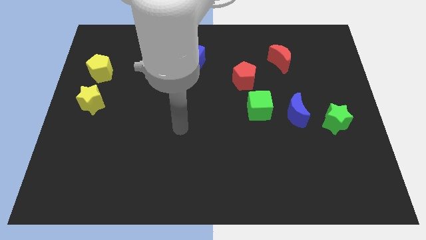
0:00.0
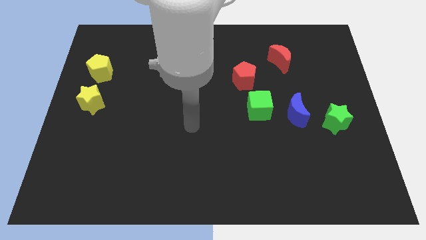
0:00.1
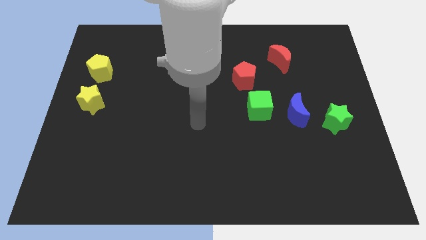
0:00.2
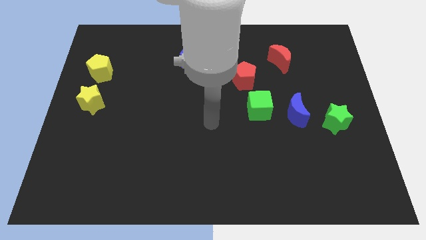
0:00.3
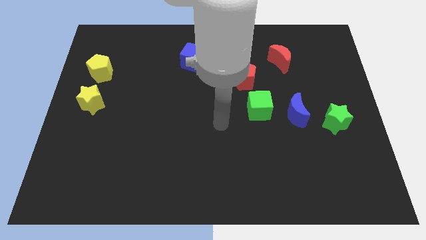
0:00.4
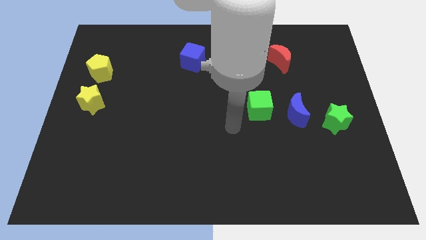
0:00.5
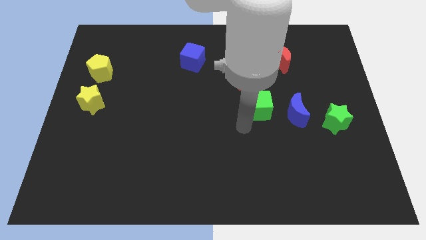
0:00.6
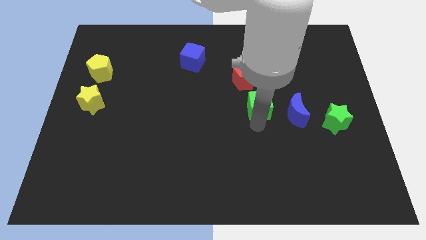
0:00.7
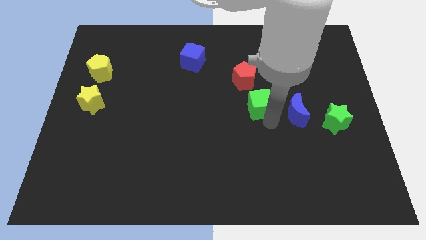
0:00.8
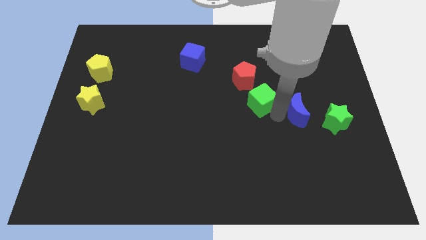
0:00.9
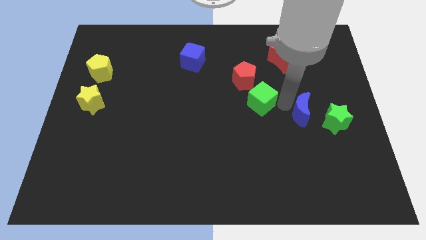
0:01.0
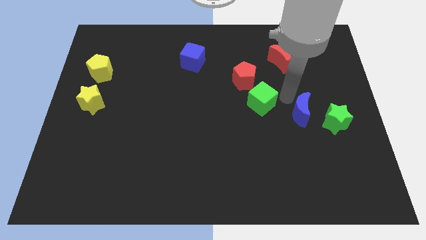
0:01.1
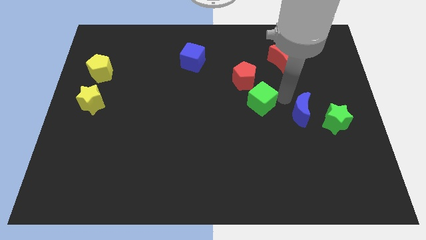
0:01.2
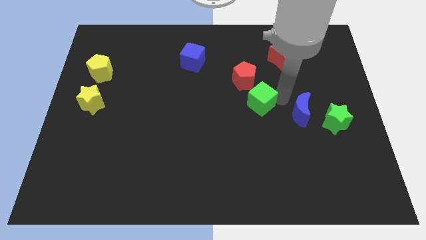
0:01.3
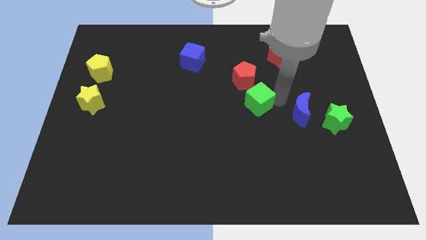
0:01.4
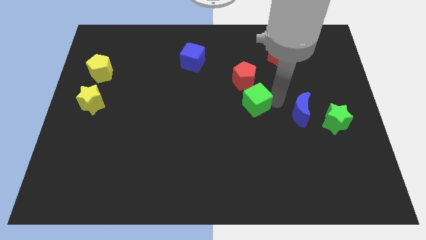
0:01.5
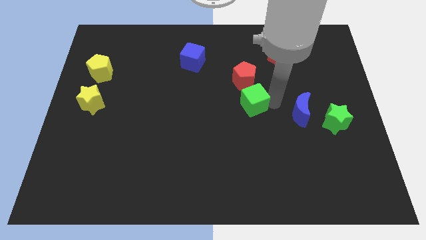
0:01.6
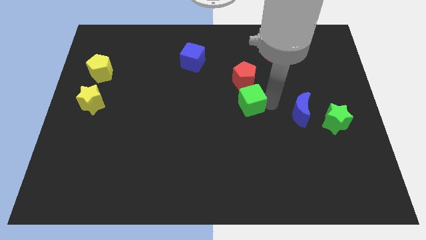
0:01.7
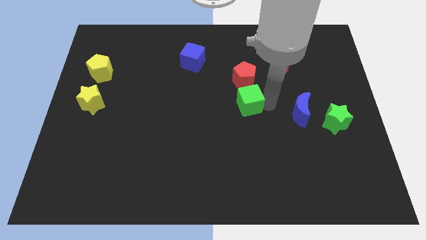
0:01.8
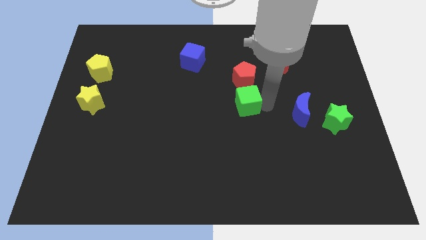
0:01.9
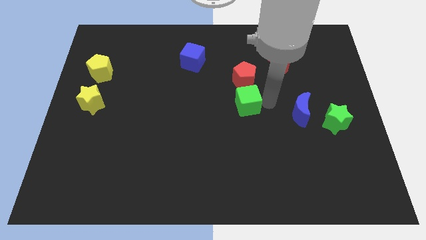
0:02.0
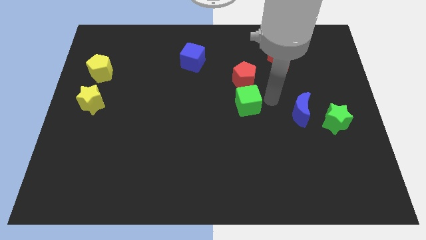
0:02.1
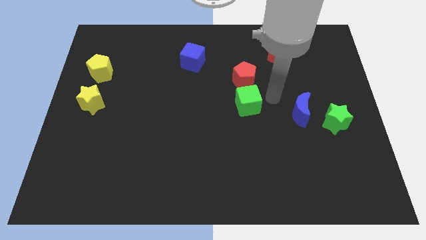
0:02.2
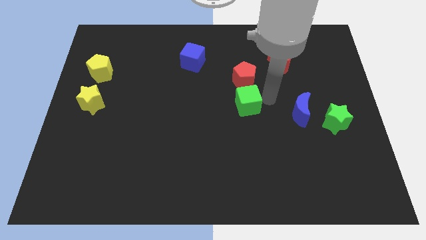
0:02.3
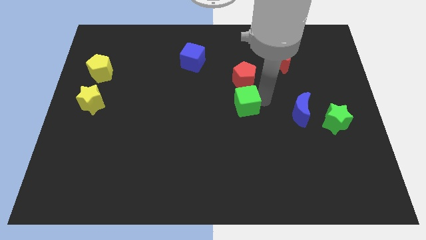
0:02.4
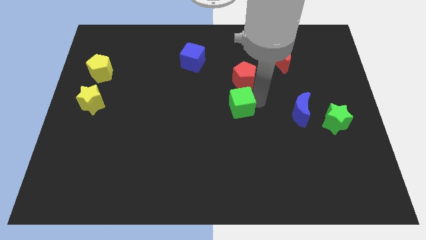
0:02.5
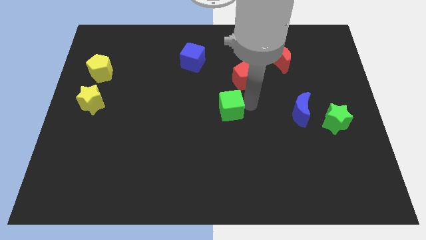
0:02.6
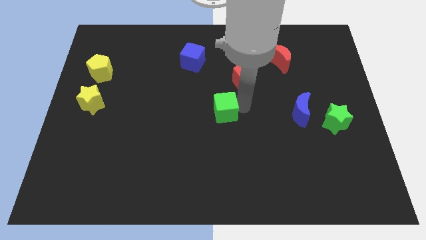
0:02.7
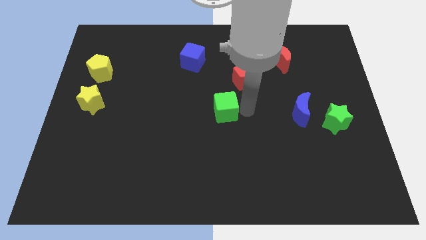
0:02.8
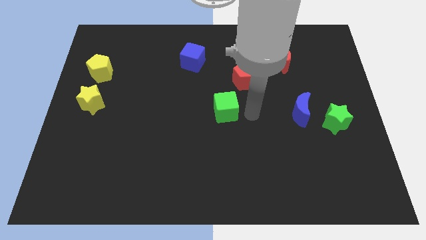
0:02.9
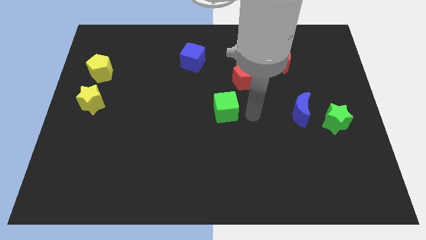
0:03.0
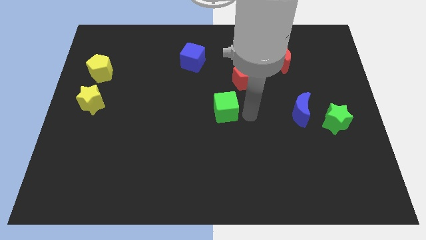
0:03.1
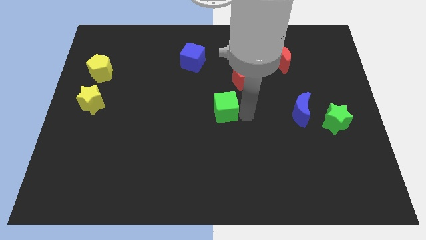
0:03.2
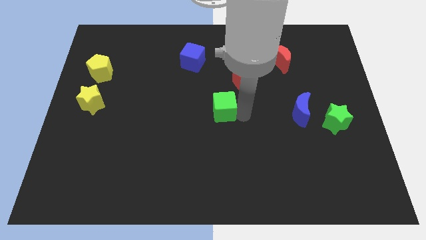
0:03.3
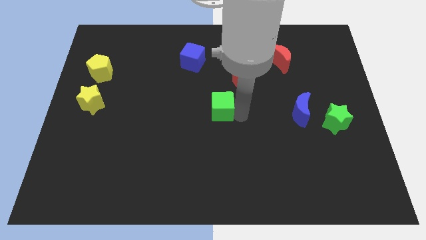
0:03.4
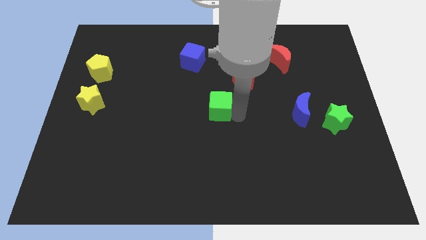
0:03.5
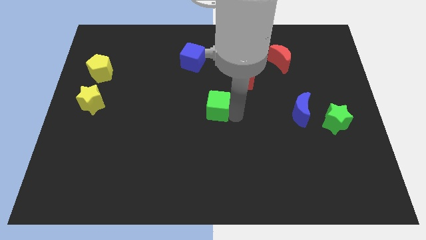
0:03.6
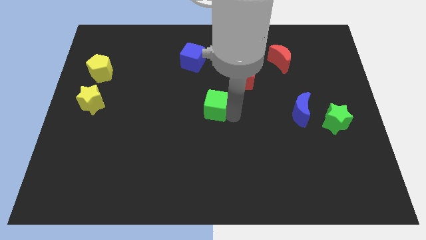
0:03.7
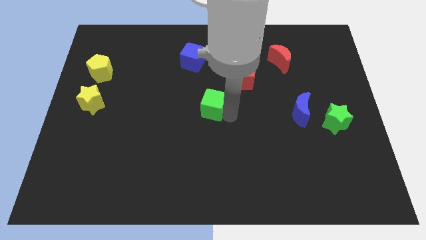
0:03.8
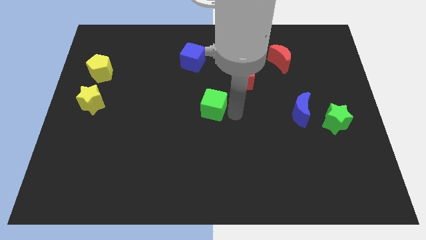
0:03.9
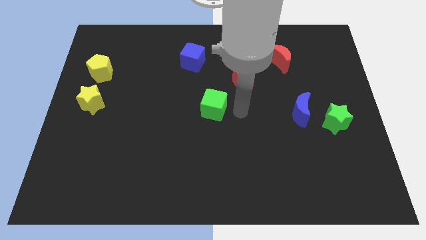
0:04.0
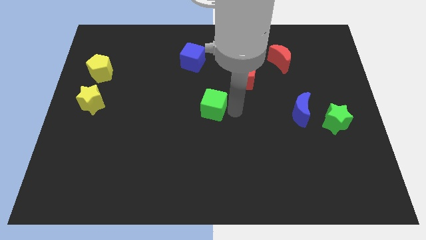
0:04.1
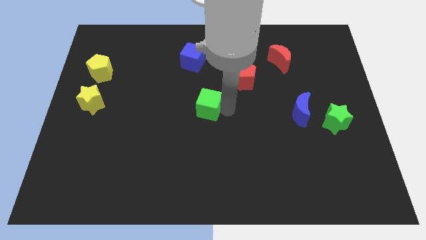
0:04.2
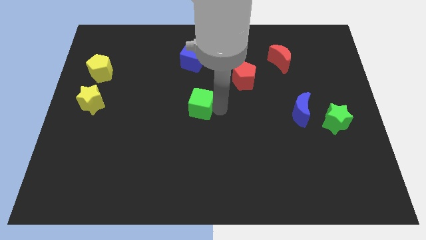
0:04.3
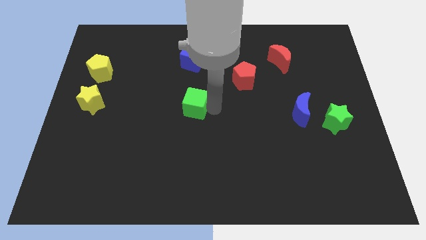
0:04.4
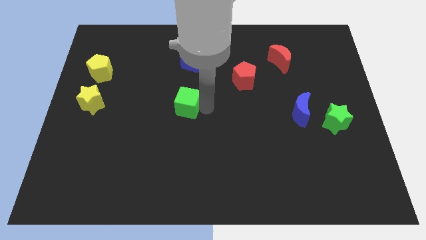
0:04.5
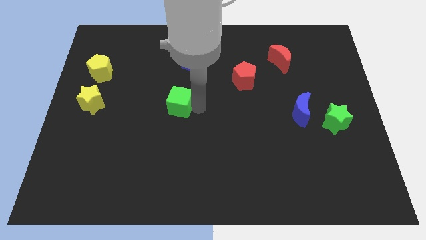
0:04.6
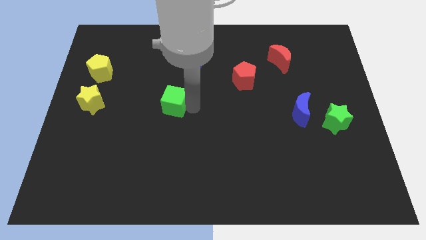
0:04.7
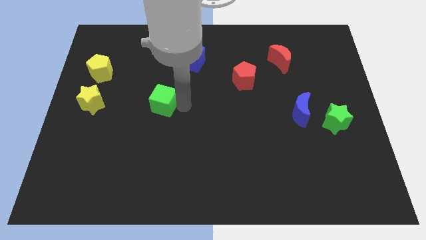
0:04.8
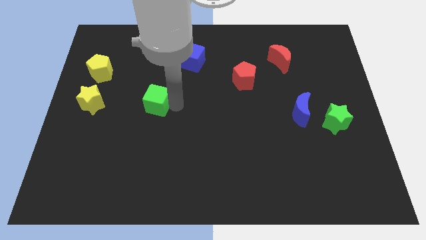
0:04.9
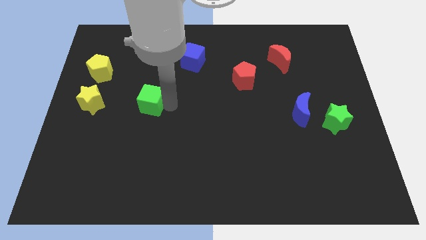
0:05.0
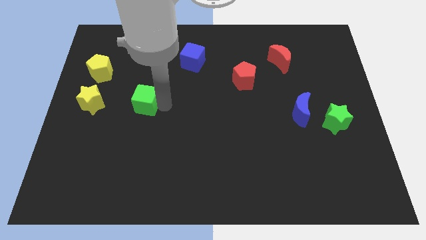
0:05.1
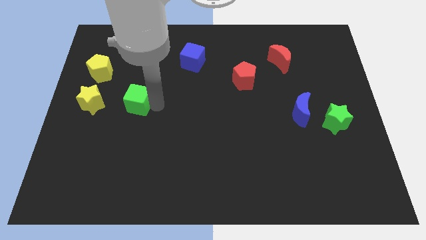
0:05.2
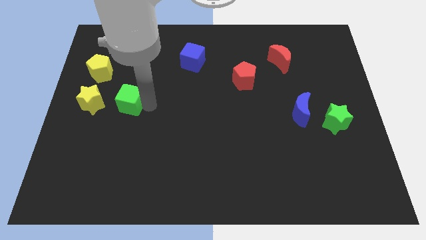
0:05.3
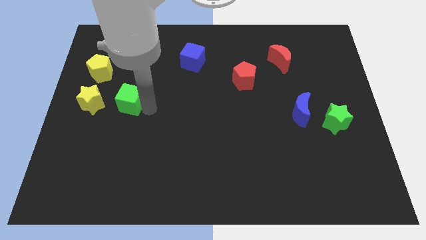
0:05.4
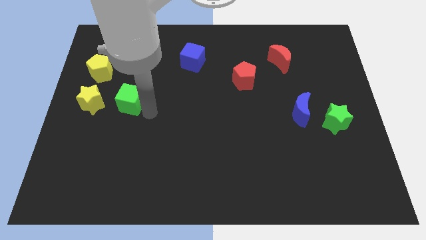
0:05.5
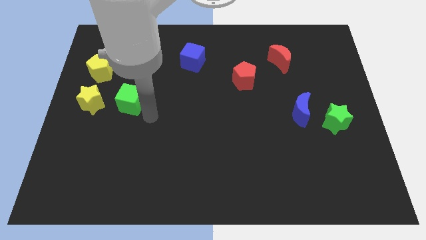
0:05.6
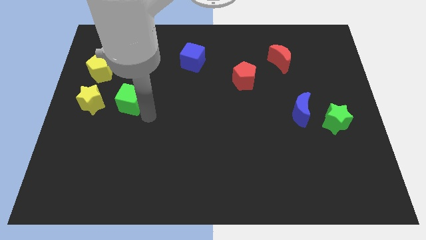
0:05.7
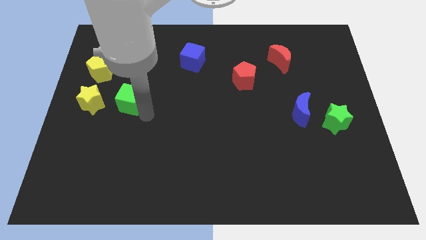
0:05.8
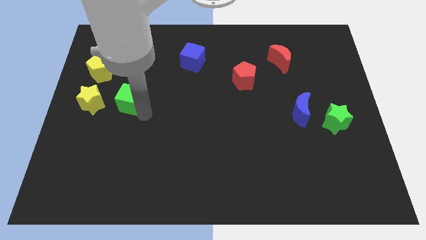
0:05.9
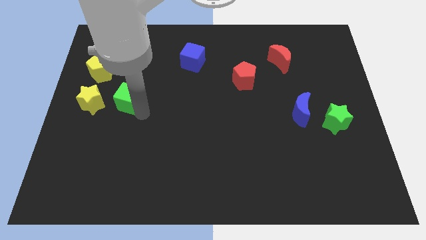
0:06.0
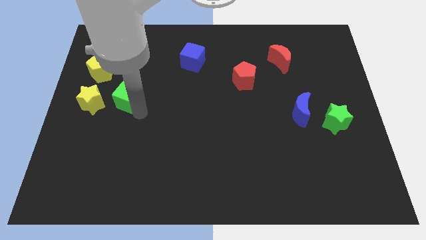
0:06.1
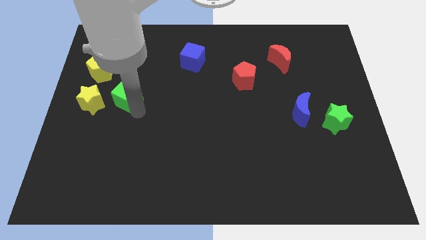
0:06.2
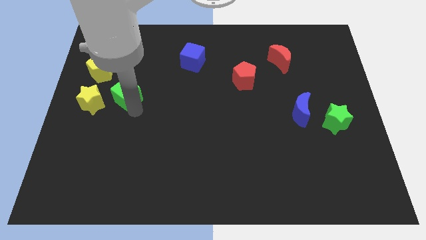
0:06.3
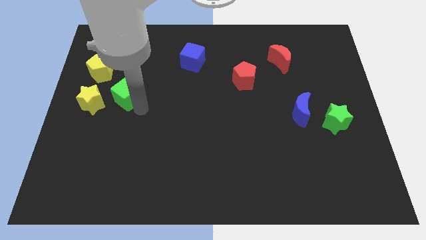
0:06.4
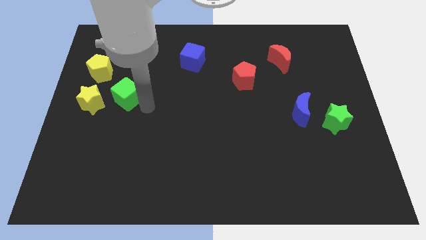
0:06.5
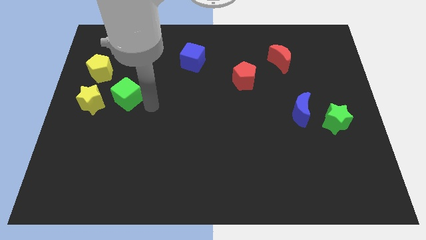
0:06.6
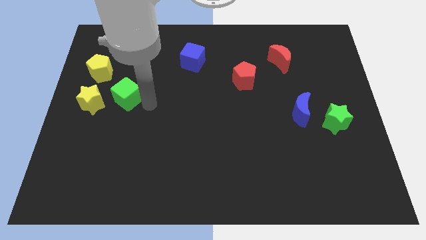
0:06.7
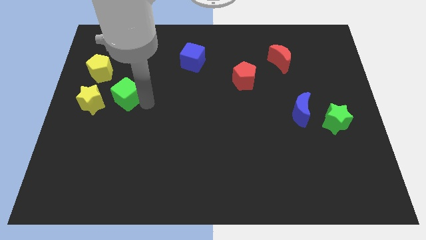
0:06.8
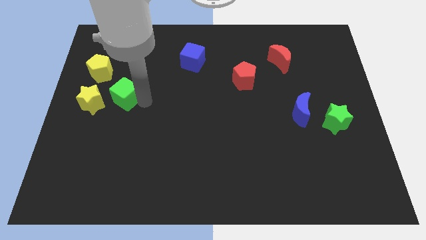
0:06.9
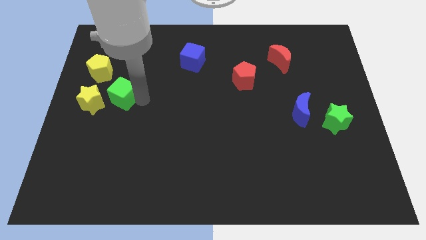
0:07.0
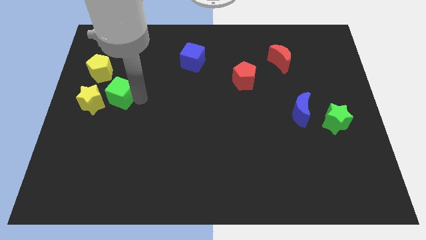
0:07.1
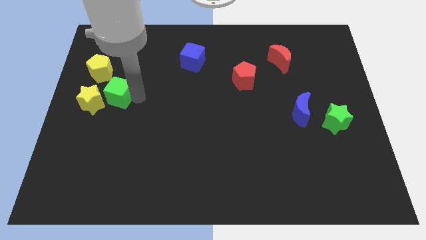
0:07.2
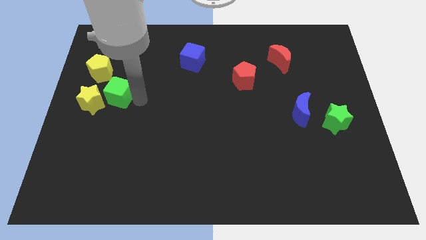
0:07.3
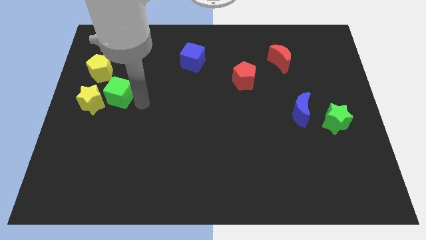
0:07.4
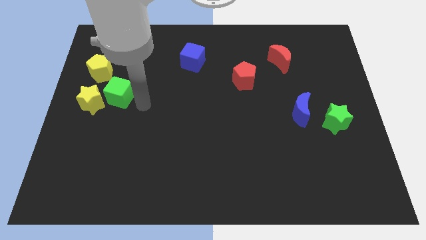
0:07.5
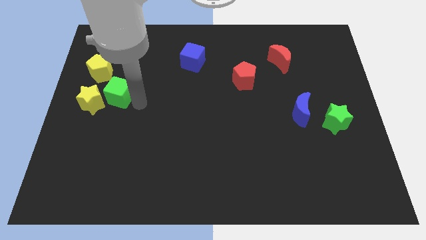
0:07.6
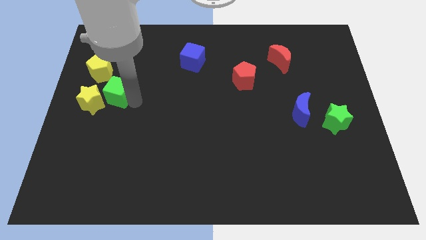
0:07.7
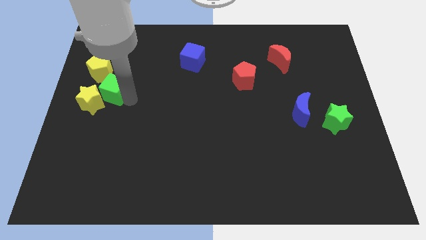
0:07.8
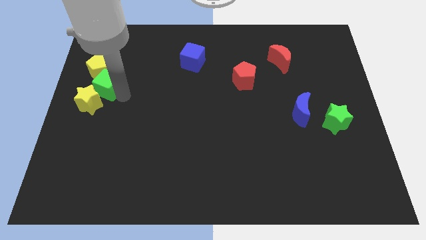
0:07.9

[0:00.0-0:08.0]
push the green cube to the left side of the board

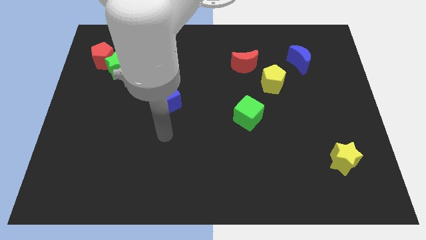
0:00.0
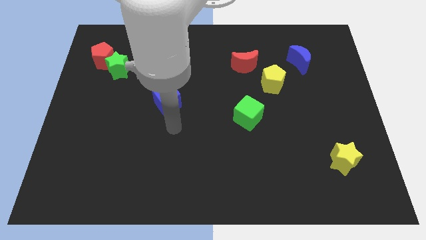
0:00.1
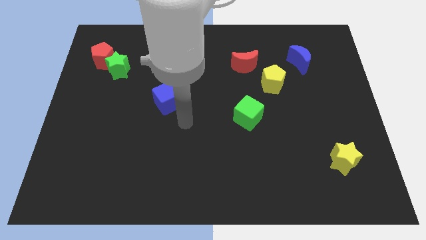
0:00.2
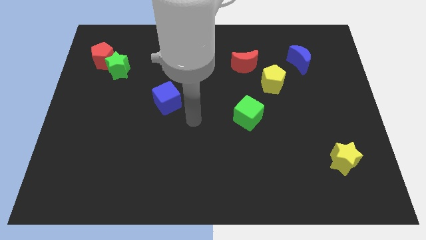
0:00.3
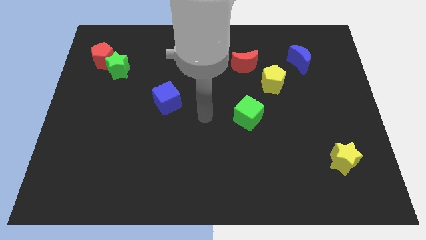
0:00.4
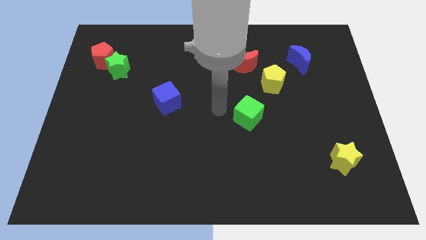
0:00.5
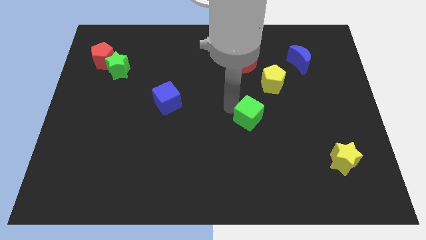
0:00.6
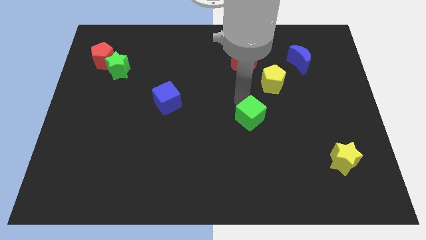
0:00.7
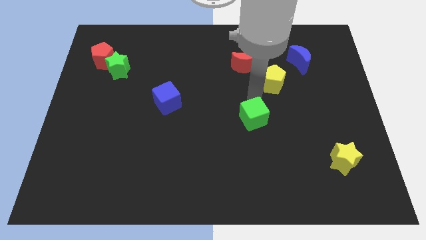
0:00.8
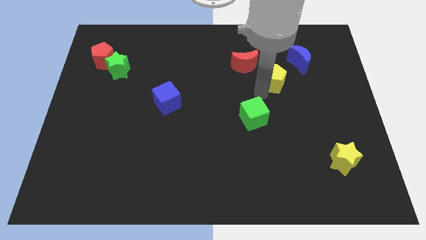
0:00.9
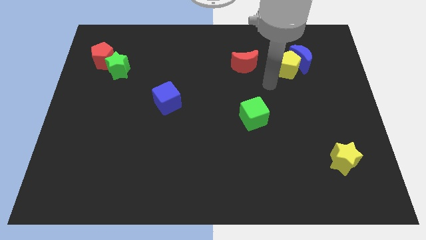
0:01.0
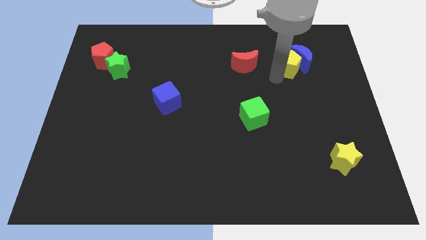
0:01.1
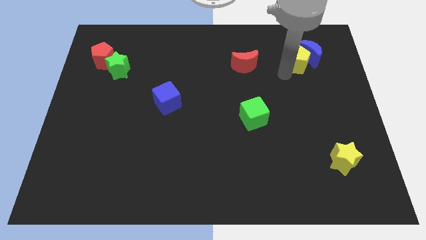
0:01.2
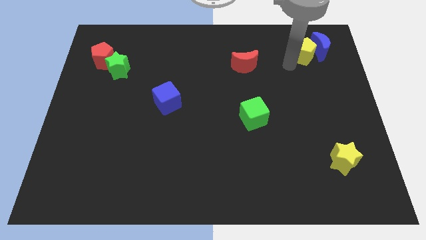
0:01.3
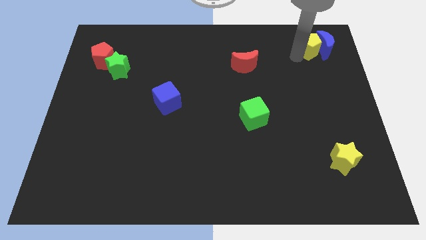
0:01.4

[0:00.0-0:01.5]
push the blue moon to the top right corner
